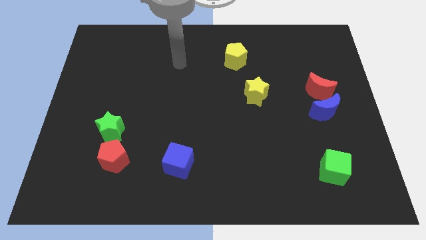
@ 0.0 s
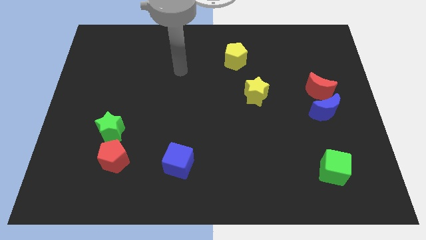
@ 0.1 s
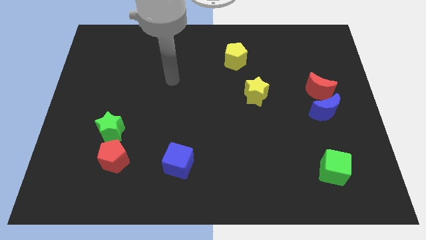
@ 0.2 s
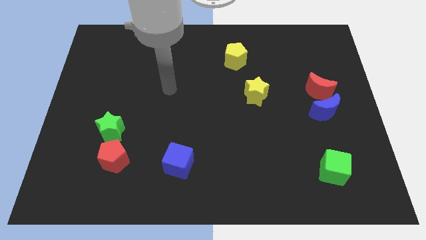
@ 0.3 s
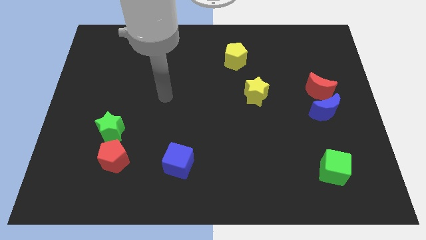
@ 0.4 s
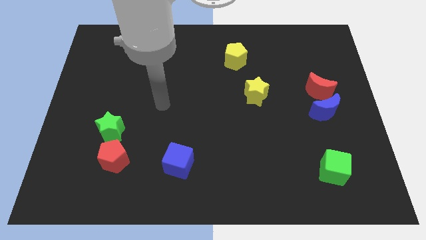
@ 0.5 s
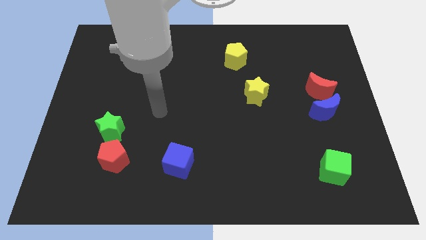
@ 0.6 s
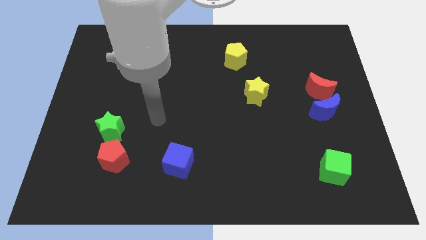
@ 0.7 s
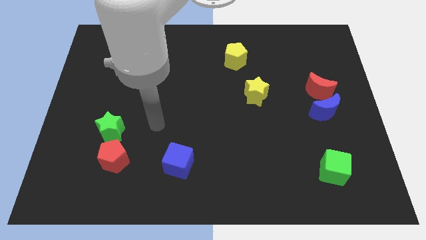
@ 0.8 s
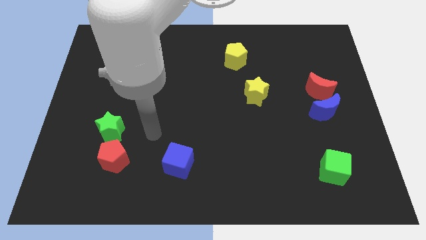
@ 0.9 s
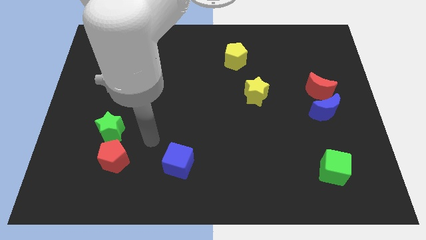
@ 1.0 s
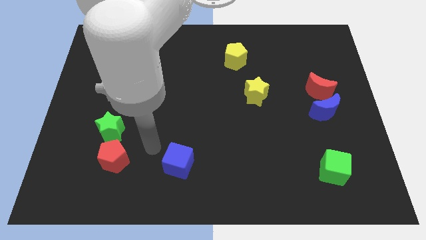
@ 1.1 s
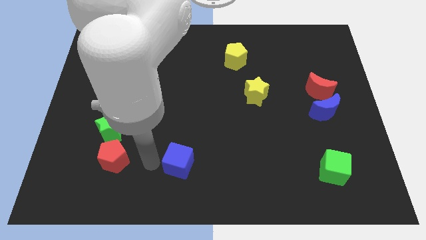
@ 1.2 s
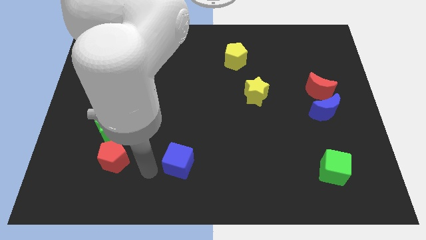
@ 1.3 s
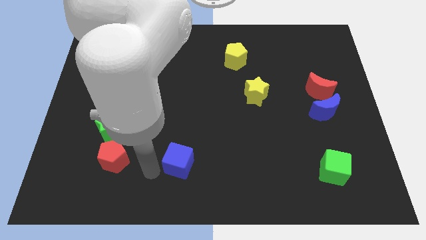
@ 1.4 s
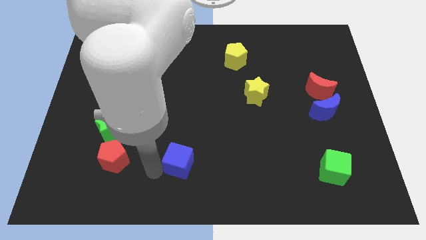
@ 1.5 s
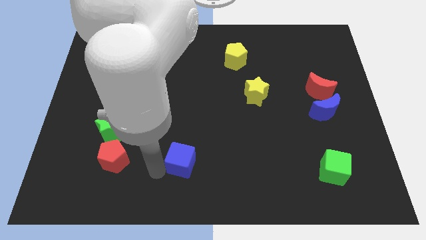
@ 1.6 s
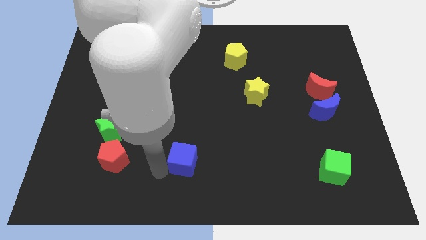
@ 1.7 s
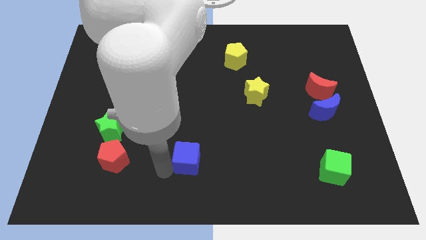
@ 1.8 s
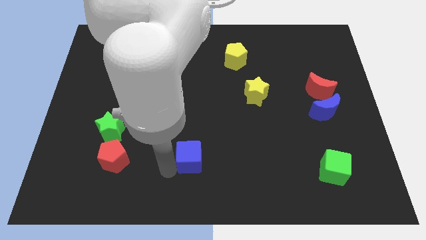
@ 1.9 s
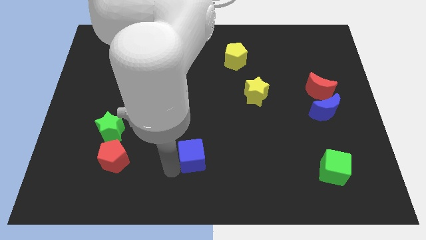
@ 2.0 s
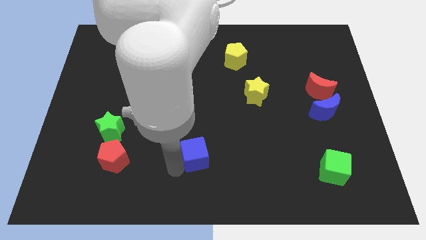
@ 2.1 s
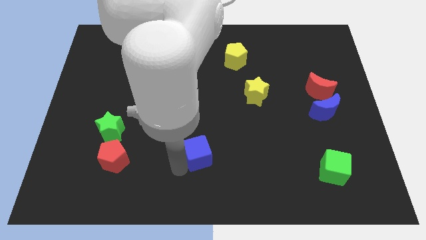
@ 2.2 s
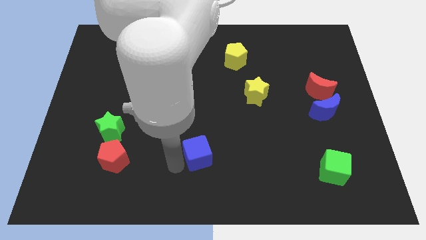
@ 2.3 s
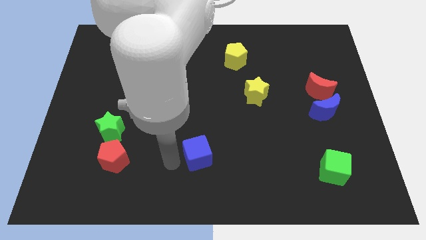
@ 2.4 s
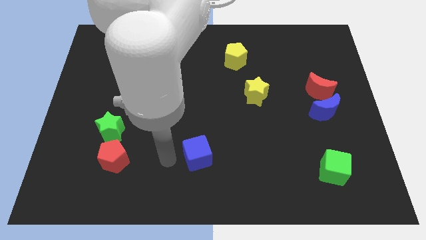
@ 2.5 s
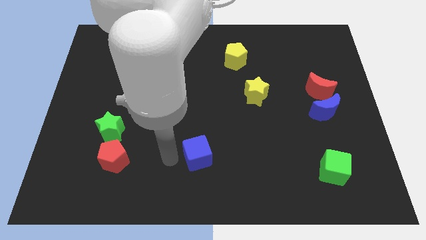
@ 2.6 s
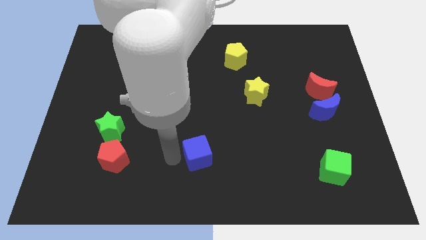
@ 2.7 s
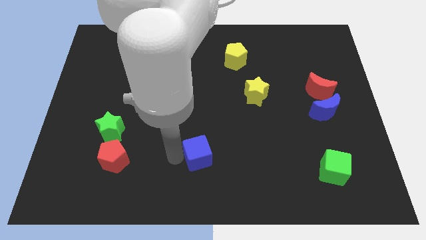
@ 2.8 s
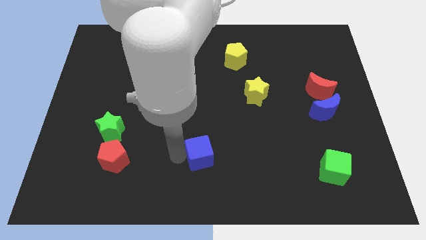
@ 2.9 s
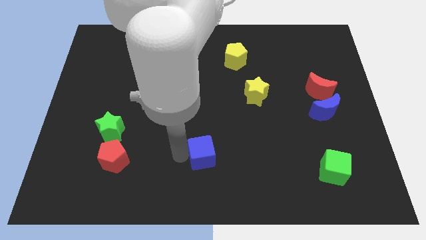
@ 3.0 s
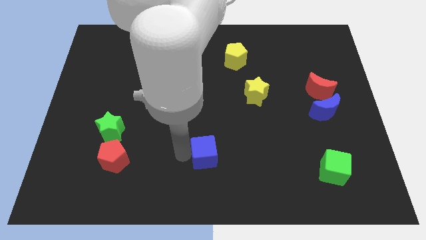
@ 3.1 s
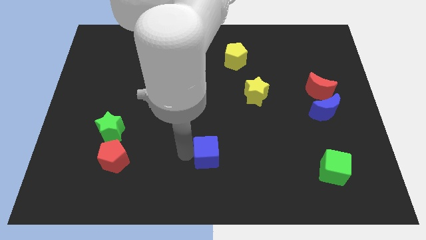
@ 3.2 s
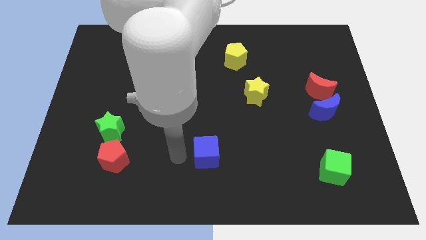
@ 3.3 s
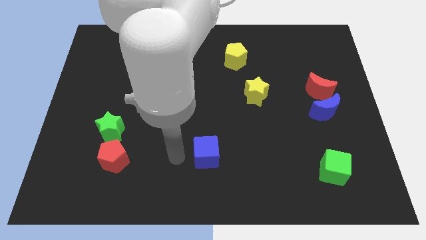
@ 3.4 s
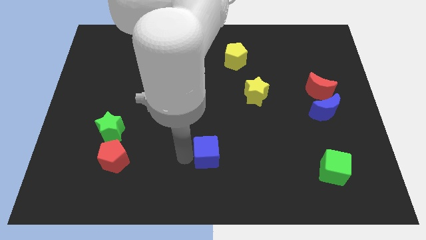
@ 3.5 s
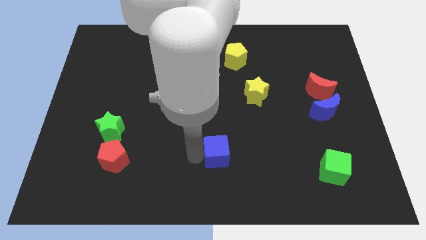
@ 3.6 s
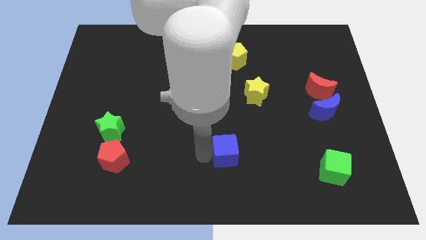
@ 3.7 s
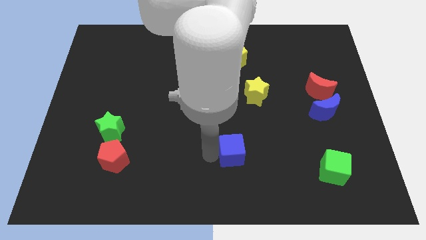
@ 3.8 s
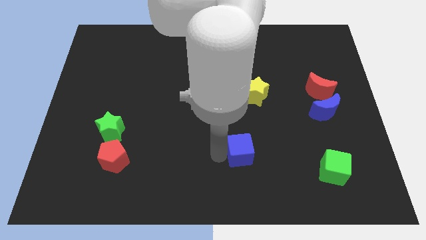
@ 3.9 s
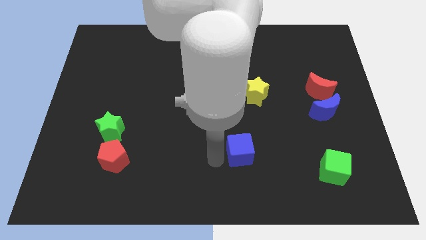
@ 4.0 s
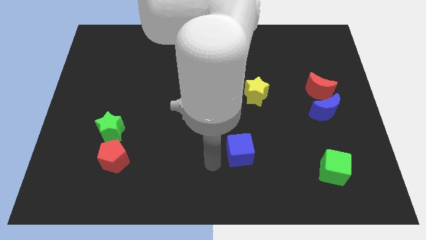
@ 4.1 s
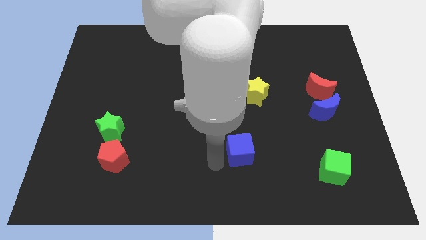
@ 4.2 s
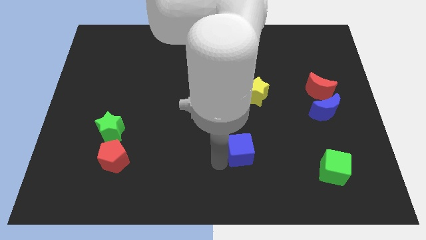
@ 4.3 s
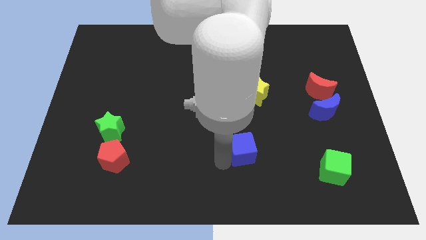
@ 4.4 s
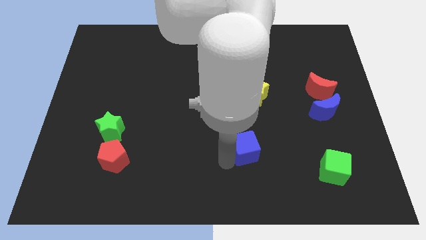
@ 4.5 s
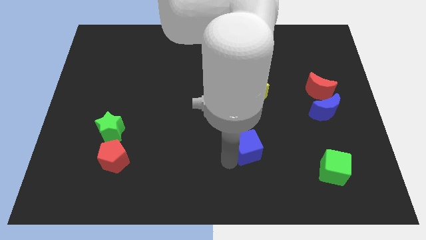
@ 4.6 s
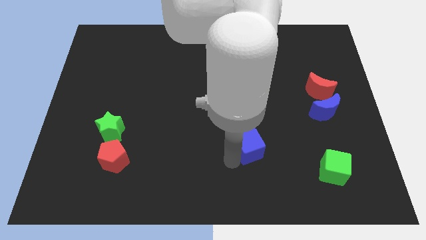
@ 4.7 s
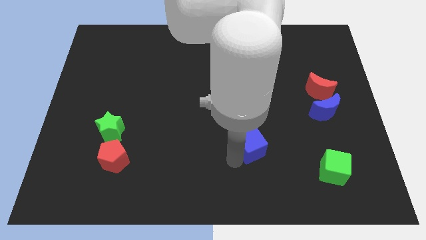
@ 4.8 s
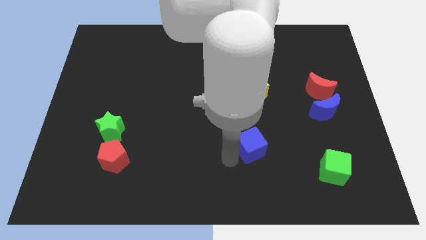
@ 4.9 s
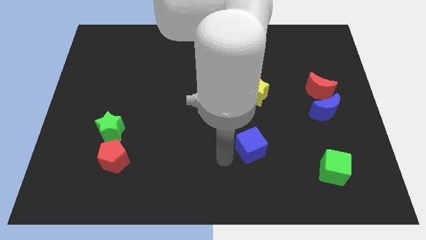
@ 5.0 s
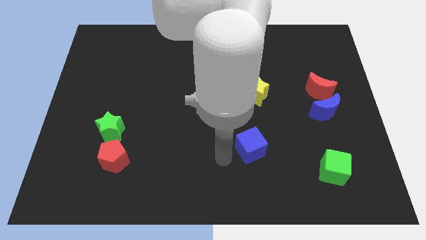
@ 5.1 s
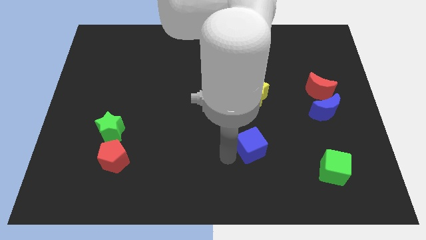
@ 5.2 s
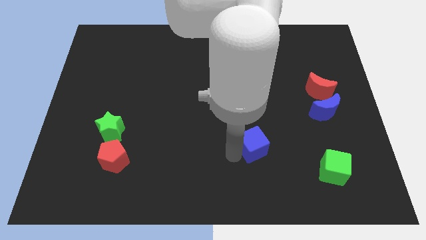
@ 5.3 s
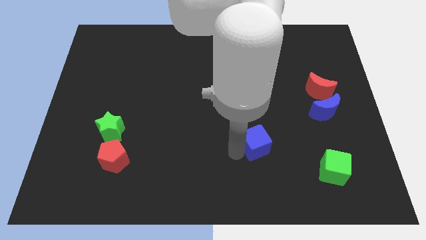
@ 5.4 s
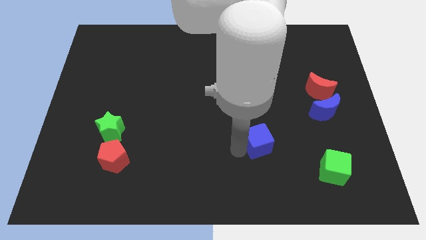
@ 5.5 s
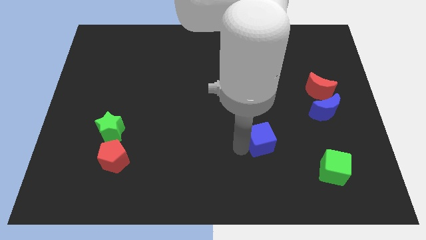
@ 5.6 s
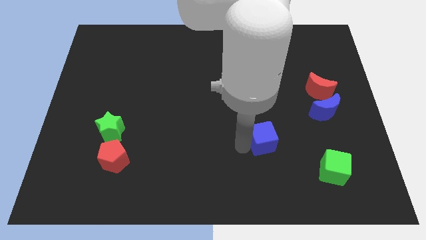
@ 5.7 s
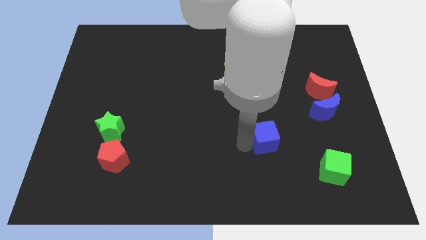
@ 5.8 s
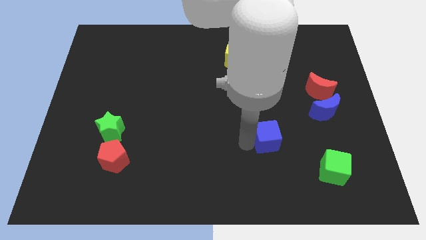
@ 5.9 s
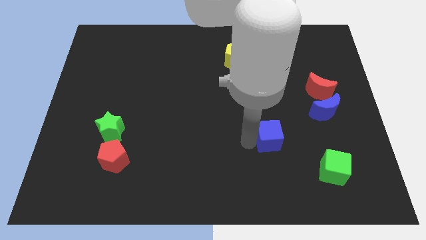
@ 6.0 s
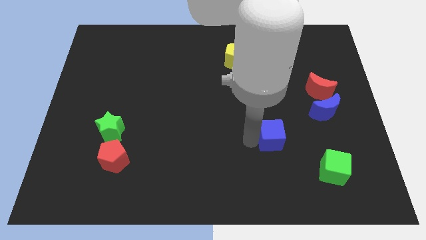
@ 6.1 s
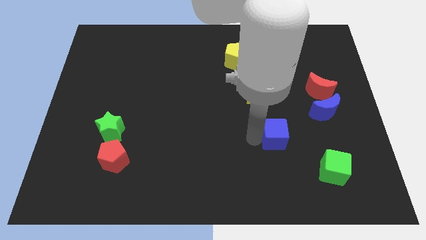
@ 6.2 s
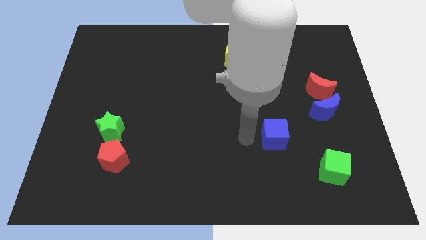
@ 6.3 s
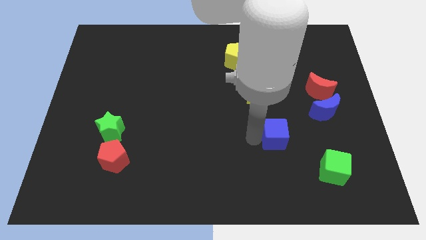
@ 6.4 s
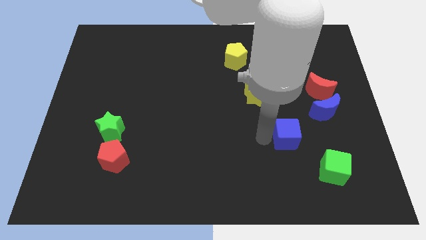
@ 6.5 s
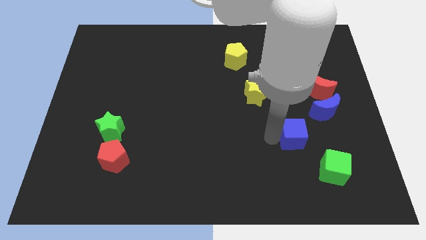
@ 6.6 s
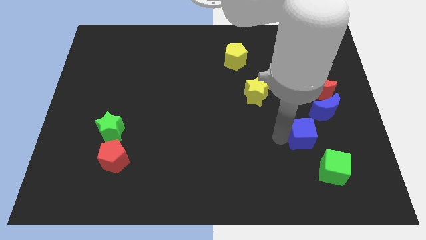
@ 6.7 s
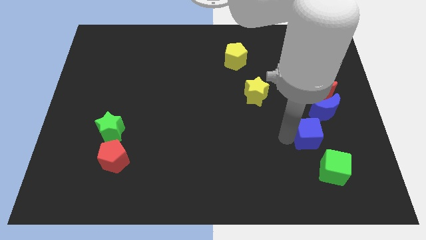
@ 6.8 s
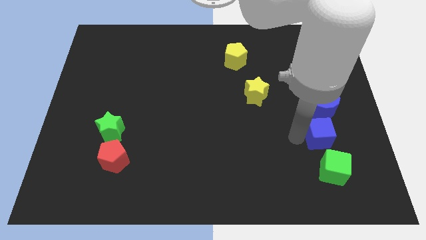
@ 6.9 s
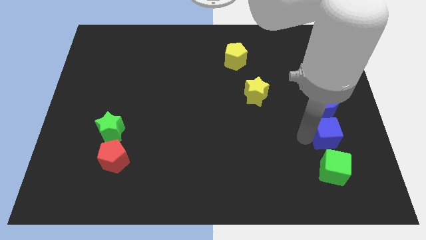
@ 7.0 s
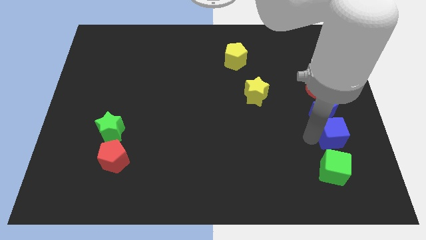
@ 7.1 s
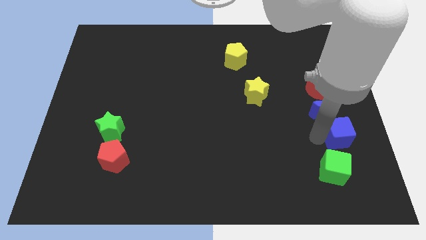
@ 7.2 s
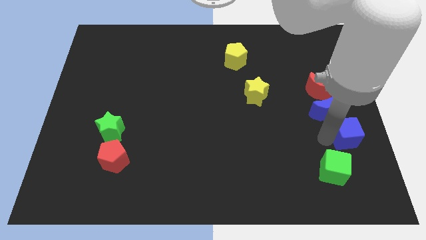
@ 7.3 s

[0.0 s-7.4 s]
push the blue cube to the right side

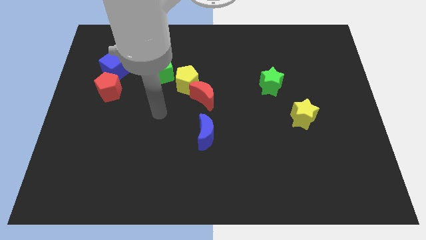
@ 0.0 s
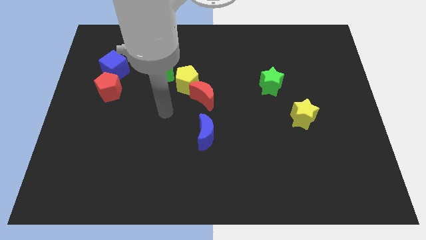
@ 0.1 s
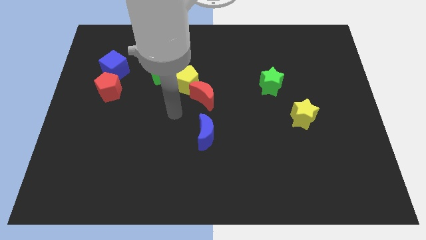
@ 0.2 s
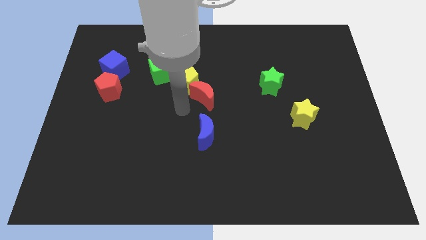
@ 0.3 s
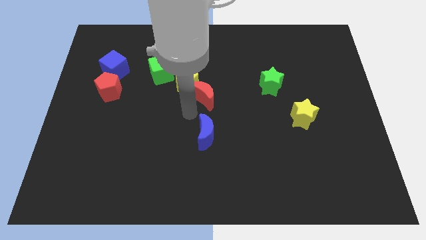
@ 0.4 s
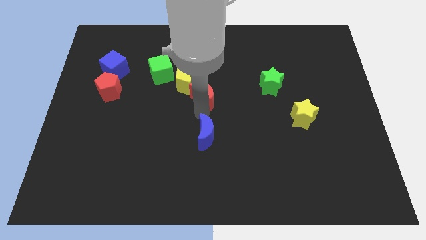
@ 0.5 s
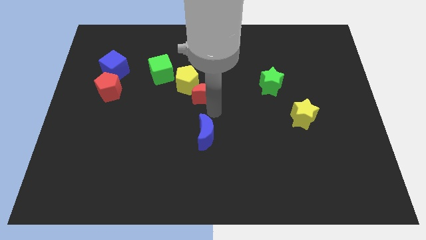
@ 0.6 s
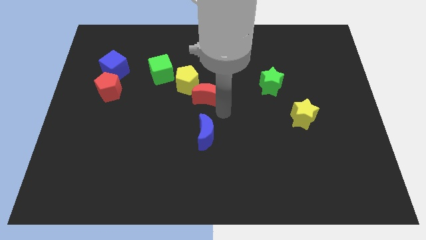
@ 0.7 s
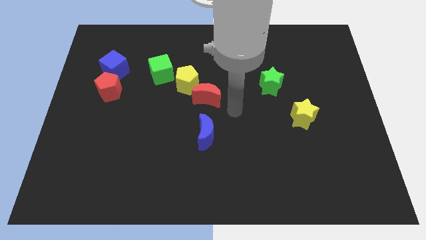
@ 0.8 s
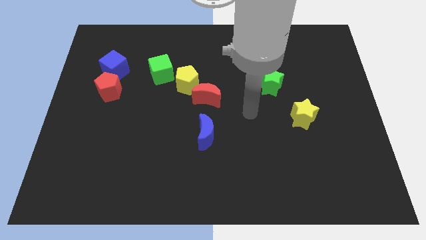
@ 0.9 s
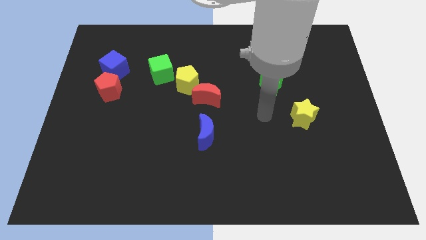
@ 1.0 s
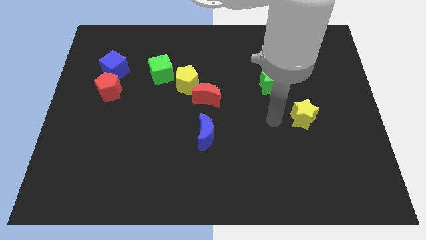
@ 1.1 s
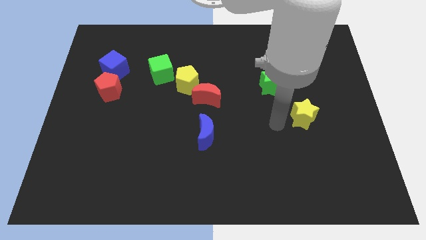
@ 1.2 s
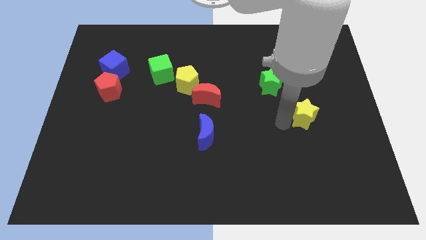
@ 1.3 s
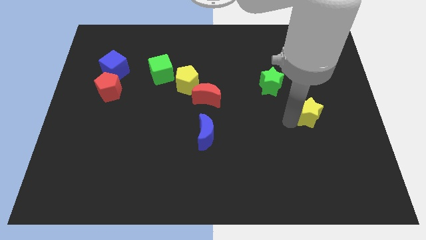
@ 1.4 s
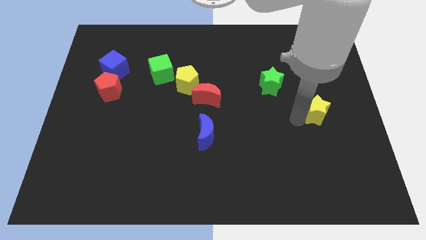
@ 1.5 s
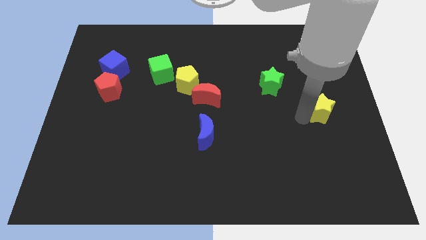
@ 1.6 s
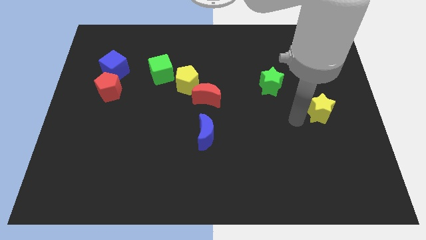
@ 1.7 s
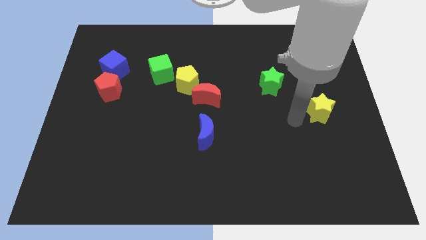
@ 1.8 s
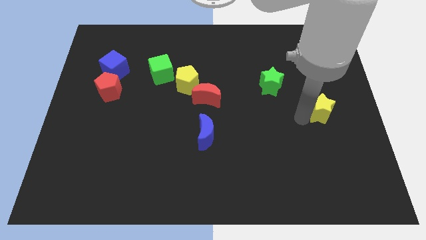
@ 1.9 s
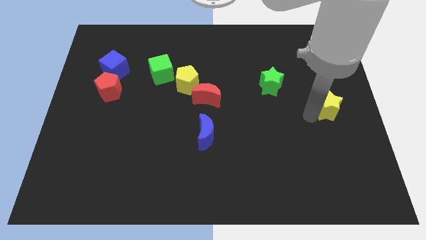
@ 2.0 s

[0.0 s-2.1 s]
slide the yellow star to the center right
